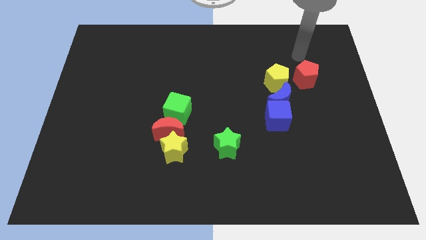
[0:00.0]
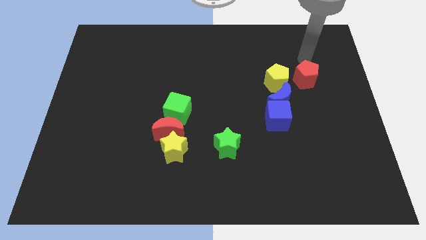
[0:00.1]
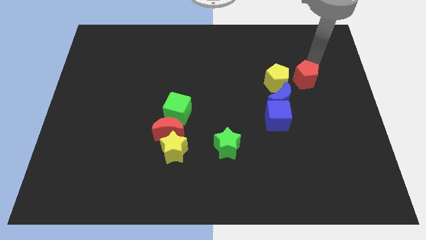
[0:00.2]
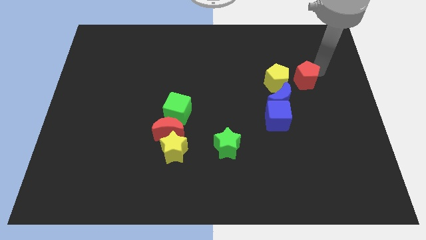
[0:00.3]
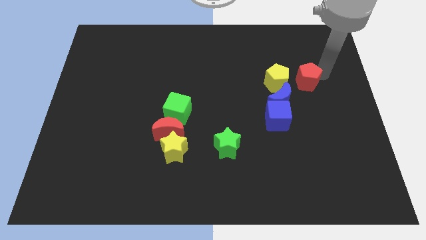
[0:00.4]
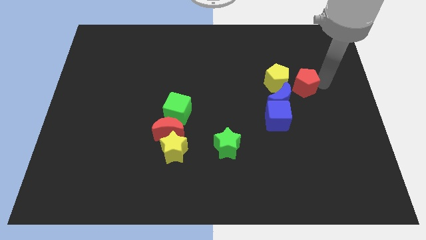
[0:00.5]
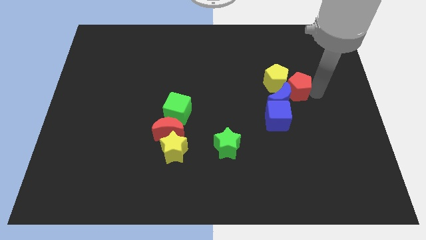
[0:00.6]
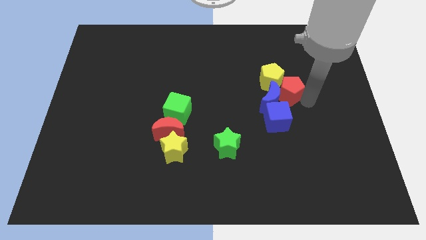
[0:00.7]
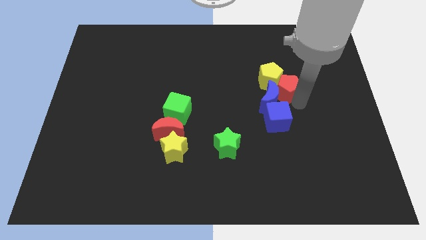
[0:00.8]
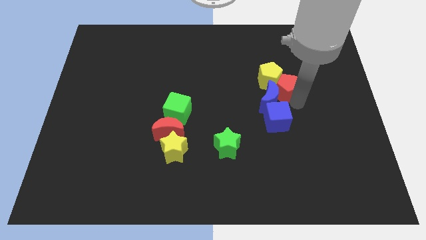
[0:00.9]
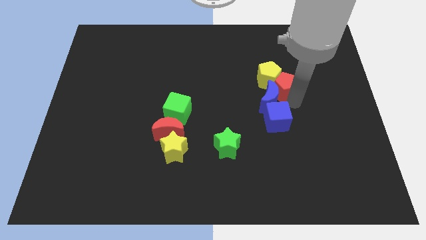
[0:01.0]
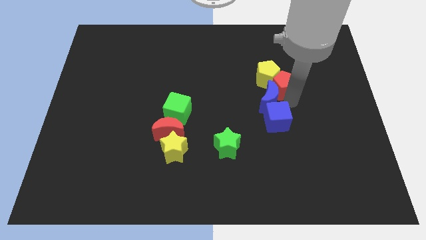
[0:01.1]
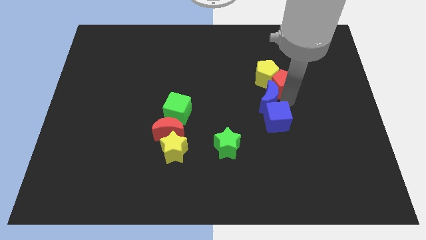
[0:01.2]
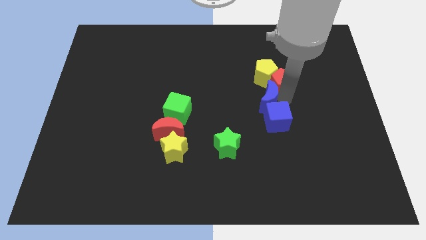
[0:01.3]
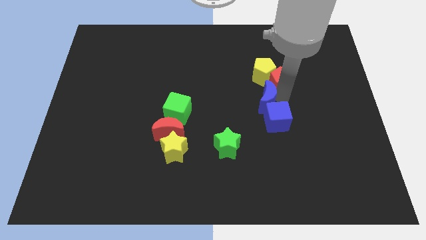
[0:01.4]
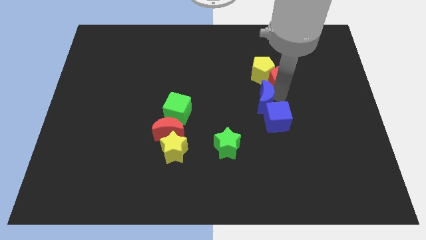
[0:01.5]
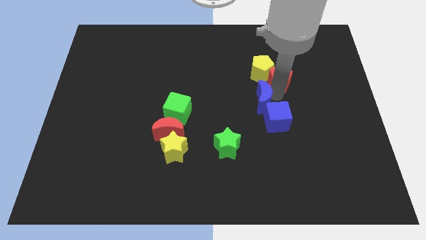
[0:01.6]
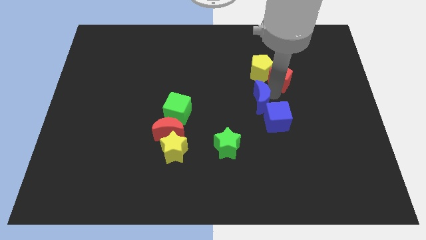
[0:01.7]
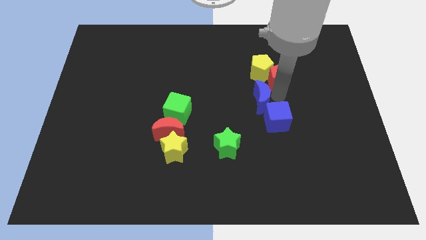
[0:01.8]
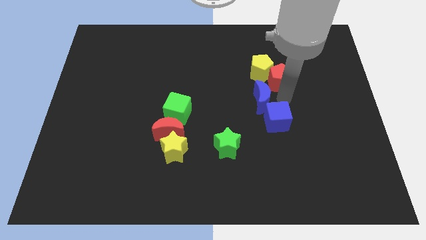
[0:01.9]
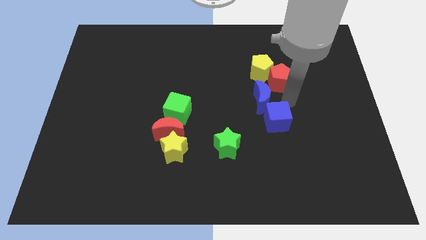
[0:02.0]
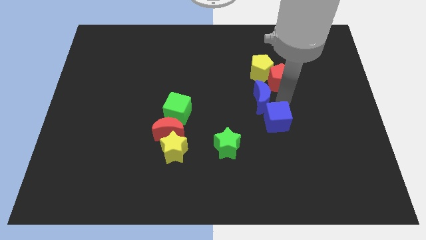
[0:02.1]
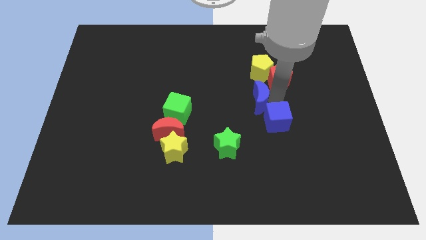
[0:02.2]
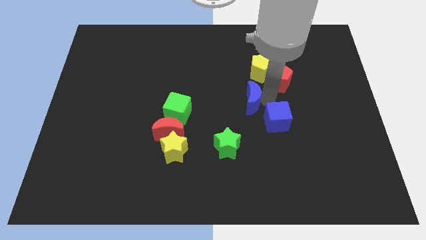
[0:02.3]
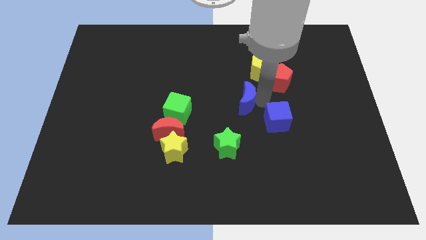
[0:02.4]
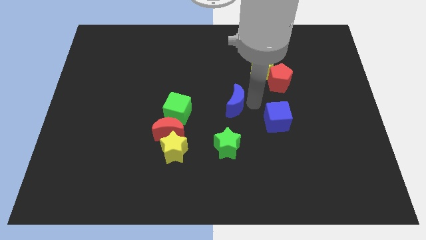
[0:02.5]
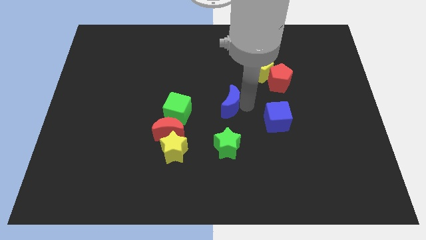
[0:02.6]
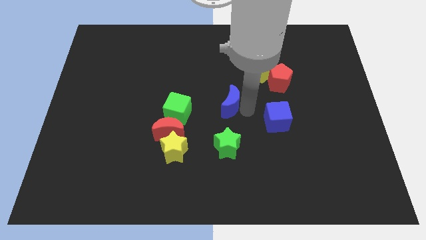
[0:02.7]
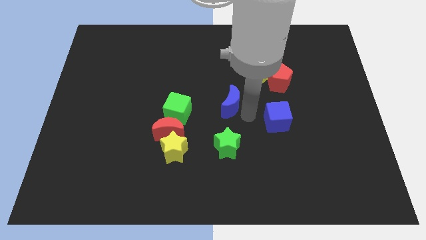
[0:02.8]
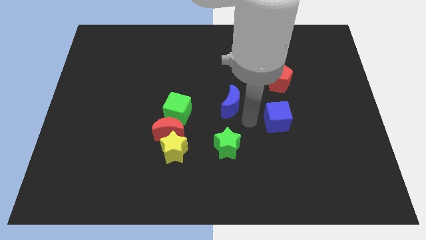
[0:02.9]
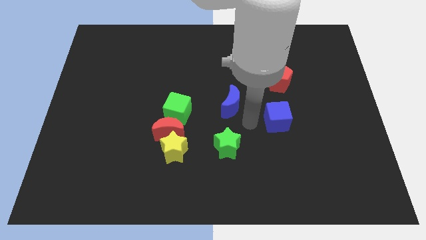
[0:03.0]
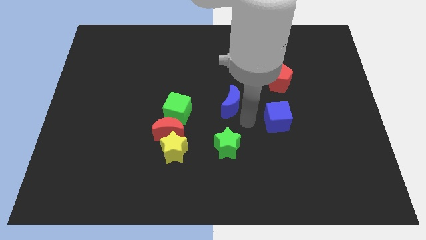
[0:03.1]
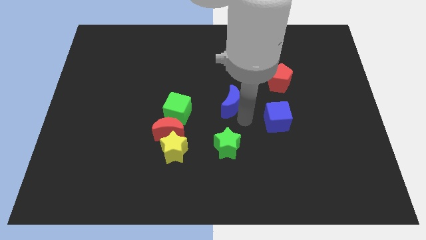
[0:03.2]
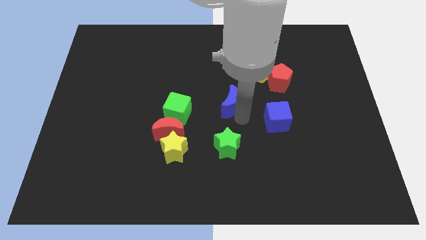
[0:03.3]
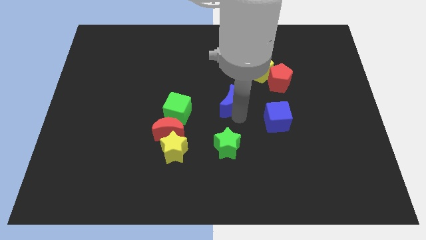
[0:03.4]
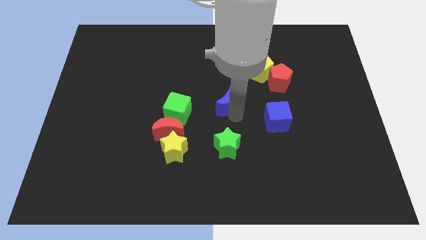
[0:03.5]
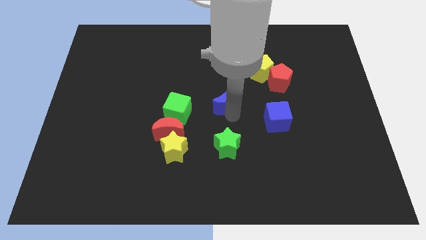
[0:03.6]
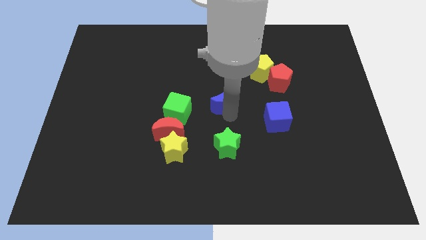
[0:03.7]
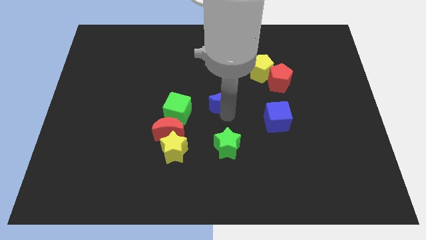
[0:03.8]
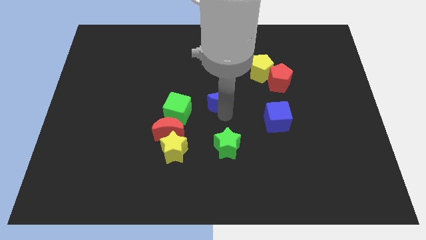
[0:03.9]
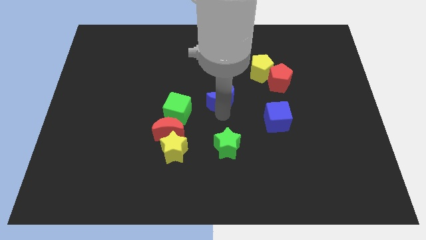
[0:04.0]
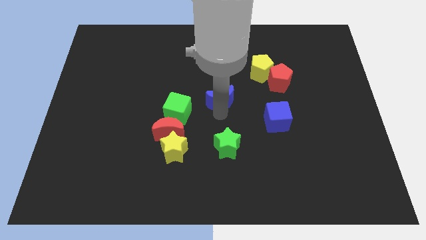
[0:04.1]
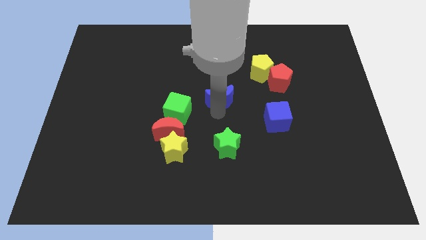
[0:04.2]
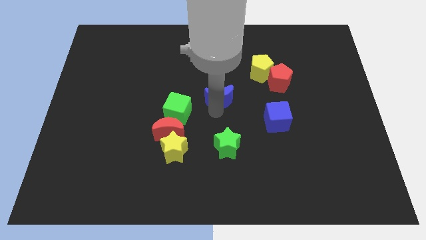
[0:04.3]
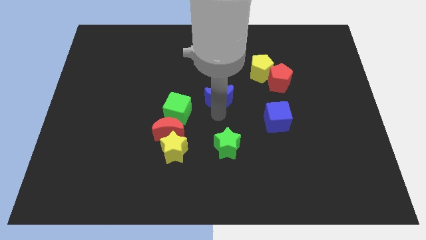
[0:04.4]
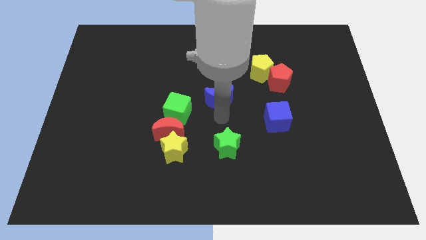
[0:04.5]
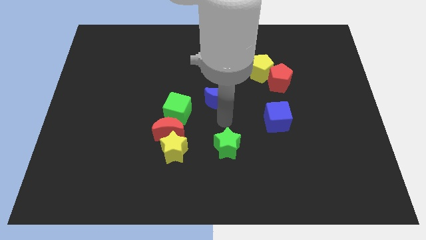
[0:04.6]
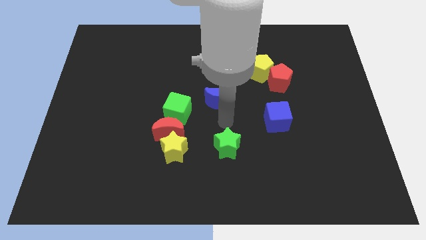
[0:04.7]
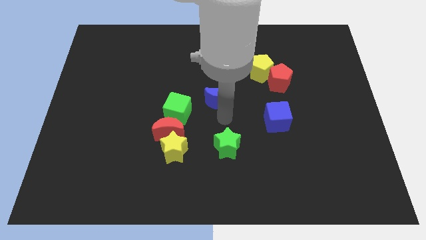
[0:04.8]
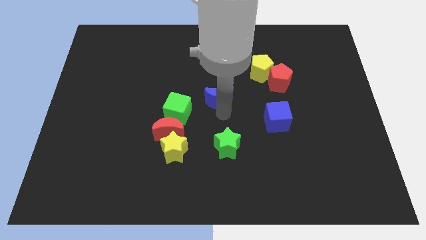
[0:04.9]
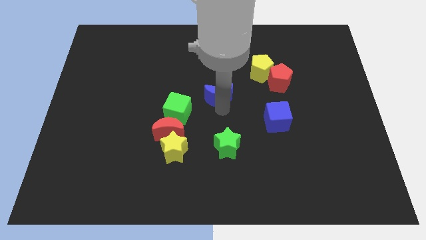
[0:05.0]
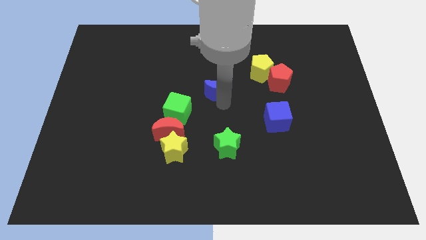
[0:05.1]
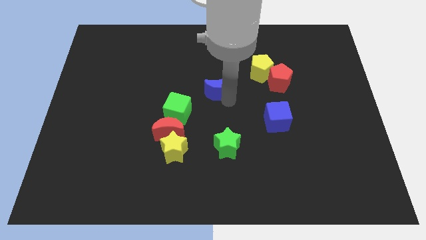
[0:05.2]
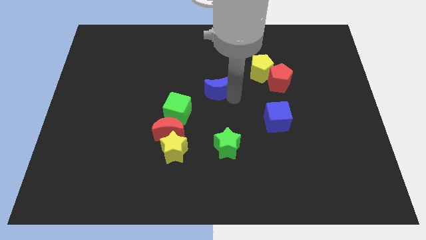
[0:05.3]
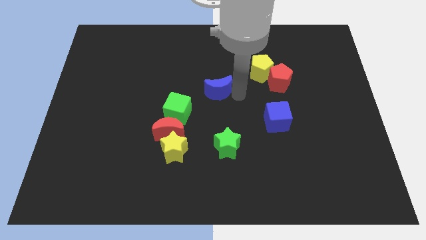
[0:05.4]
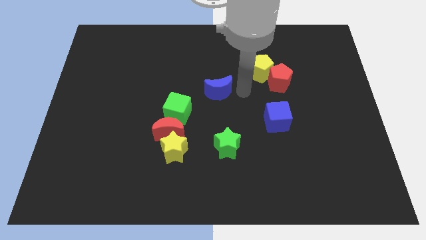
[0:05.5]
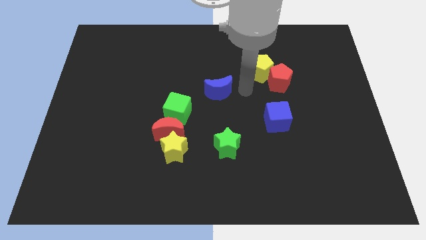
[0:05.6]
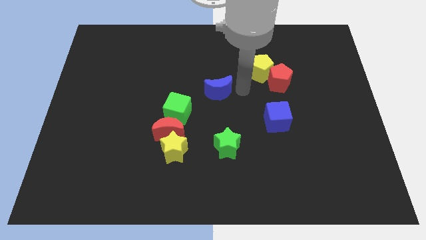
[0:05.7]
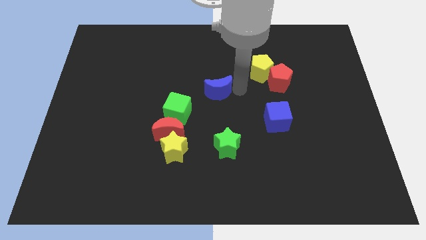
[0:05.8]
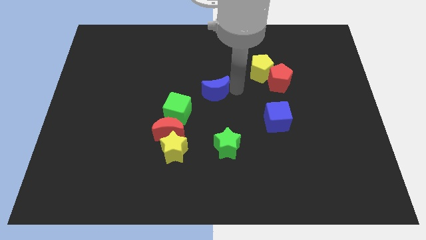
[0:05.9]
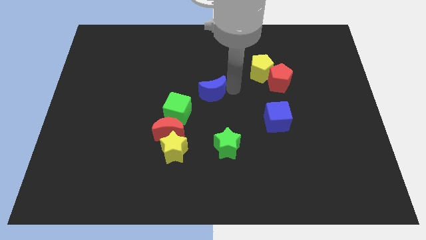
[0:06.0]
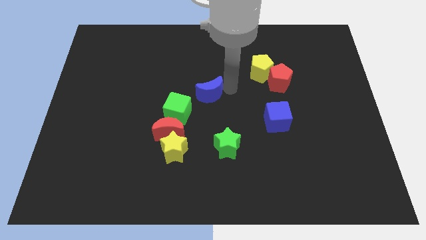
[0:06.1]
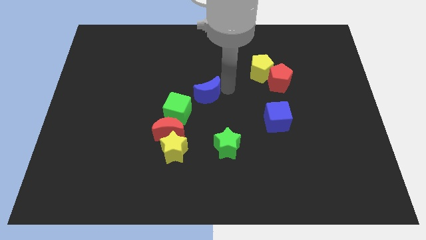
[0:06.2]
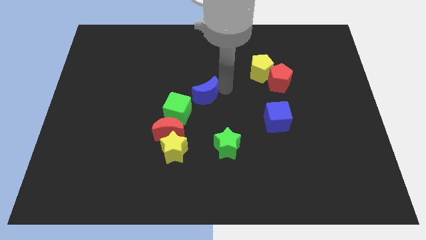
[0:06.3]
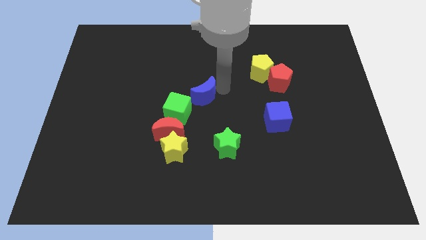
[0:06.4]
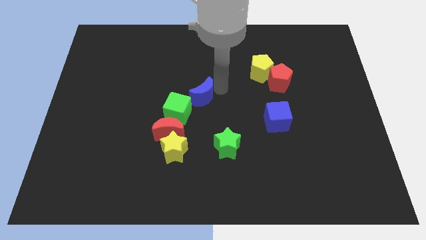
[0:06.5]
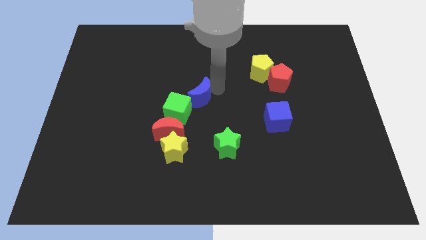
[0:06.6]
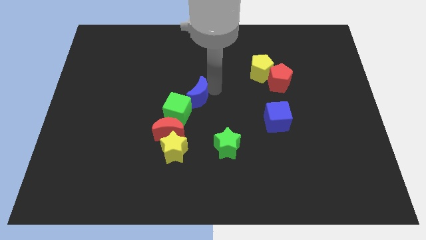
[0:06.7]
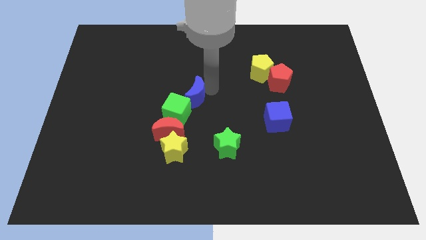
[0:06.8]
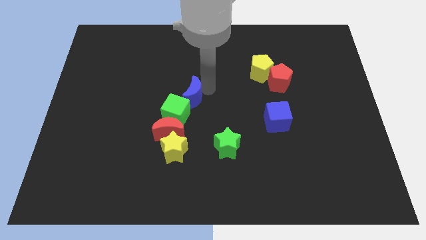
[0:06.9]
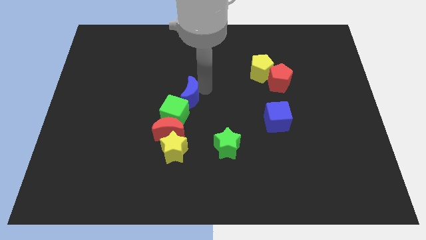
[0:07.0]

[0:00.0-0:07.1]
push the blue moon above the yellow star
